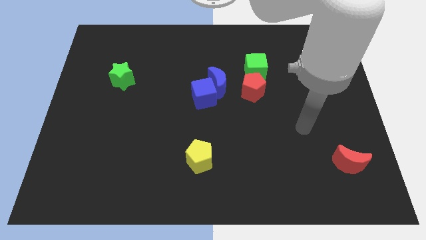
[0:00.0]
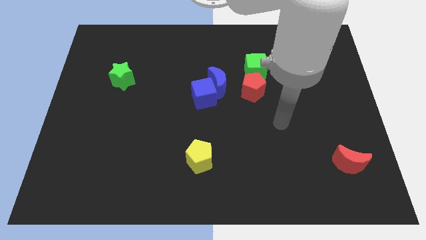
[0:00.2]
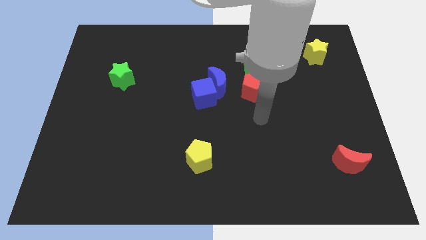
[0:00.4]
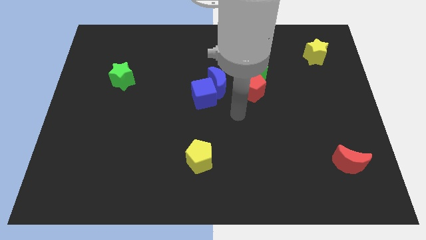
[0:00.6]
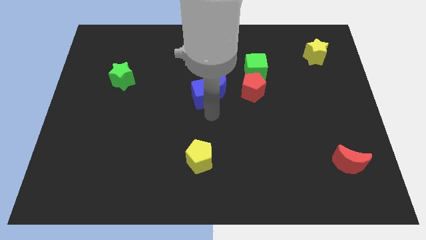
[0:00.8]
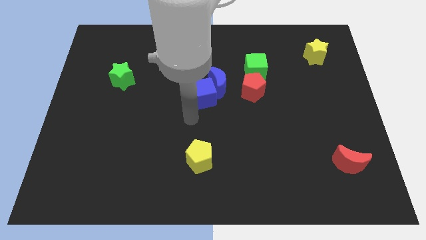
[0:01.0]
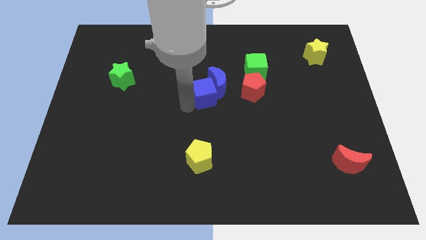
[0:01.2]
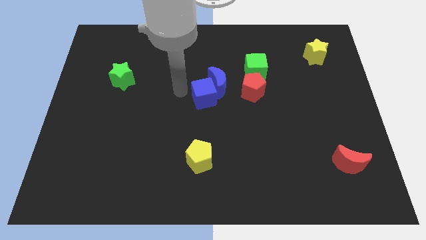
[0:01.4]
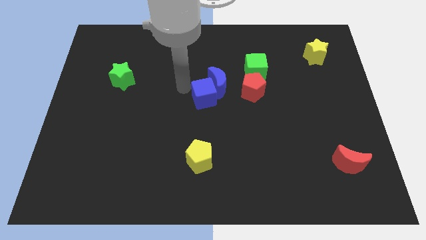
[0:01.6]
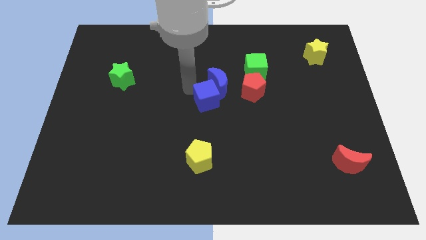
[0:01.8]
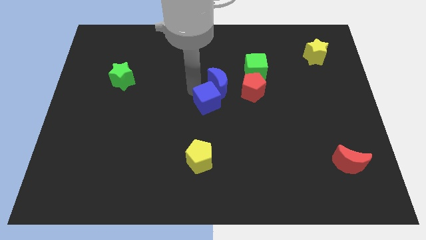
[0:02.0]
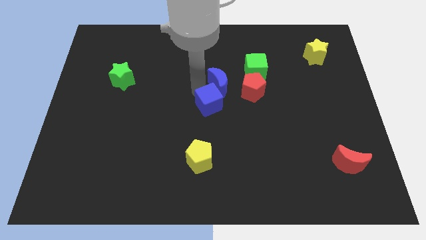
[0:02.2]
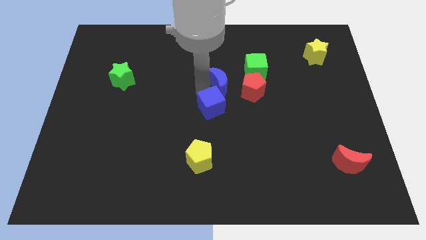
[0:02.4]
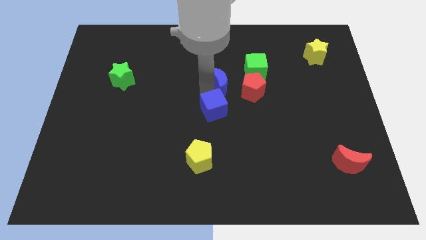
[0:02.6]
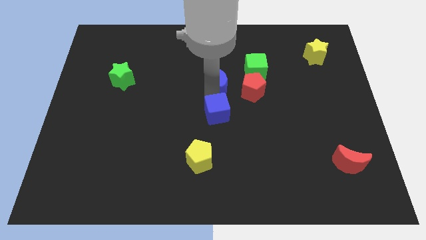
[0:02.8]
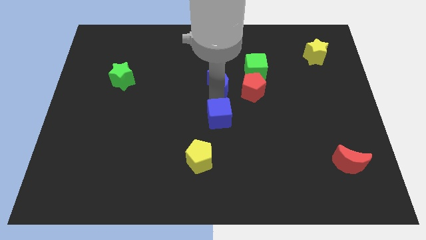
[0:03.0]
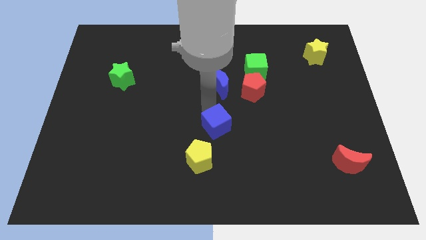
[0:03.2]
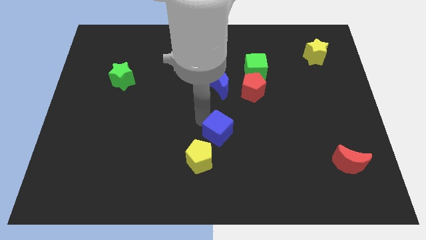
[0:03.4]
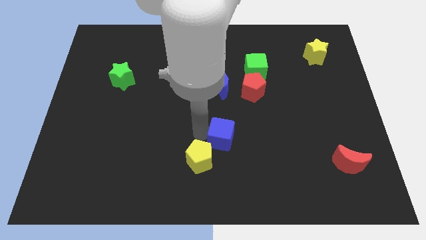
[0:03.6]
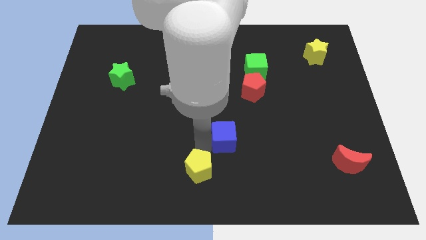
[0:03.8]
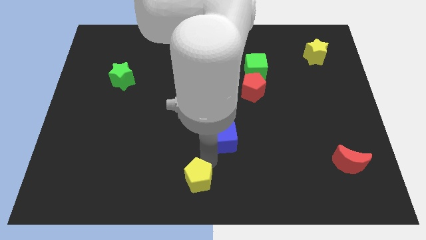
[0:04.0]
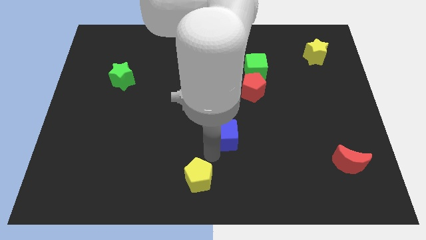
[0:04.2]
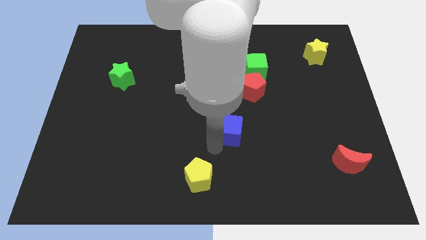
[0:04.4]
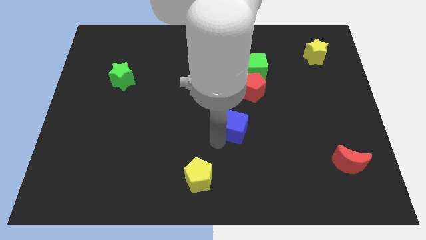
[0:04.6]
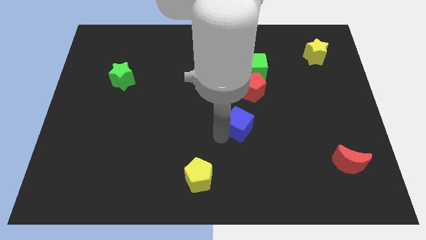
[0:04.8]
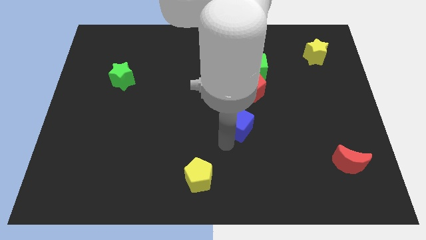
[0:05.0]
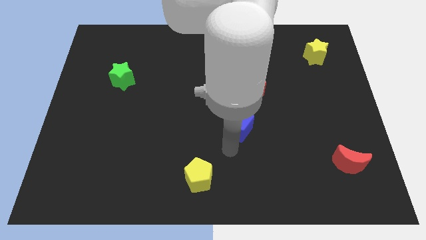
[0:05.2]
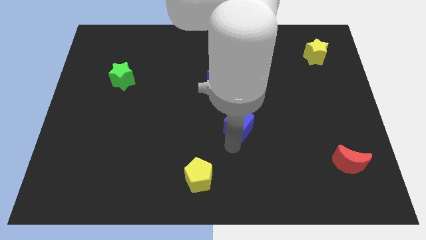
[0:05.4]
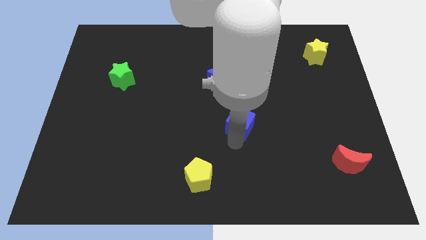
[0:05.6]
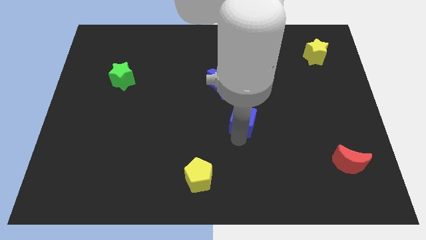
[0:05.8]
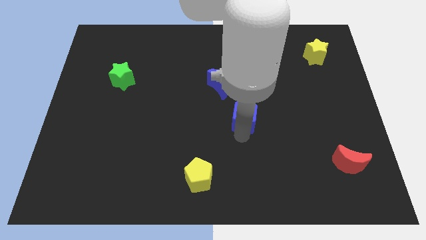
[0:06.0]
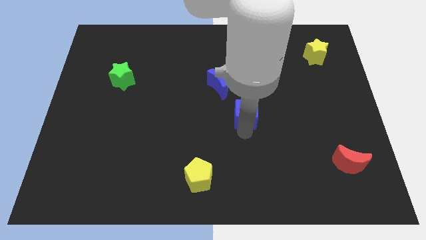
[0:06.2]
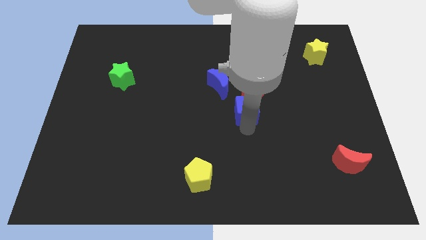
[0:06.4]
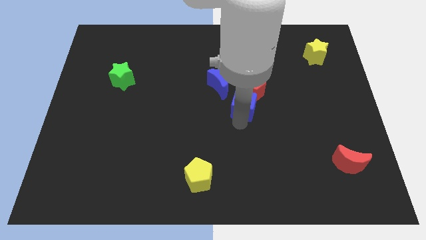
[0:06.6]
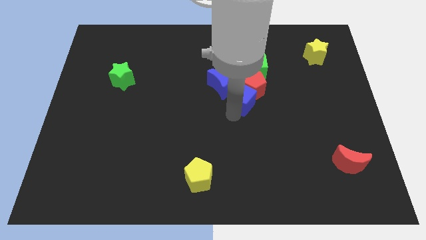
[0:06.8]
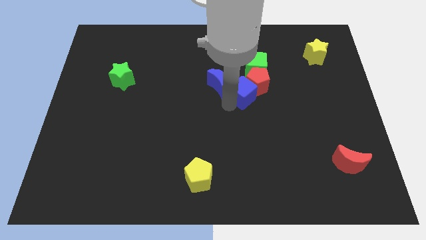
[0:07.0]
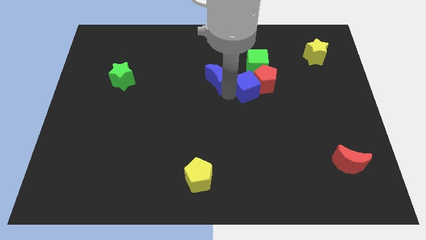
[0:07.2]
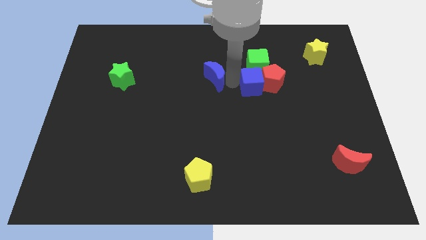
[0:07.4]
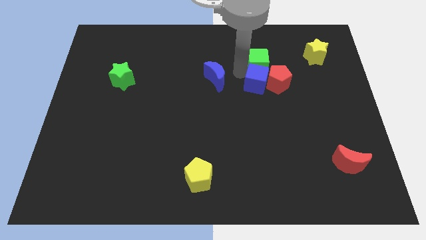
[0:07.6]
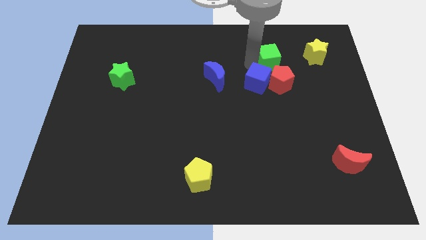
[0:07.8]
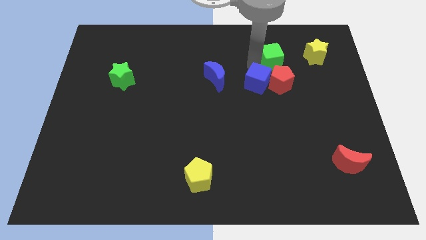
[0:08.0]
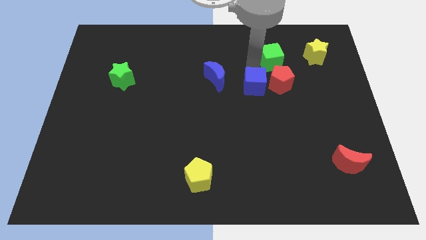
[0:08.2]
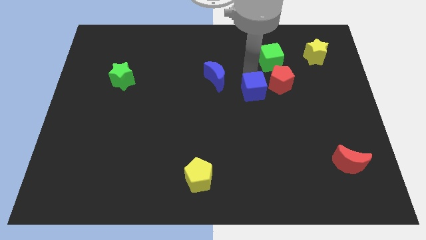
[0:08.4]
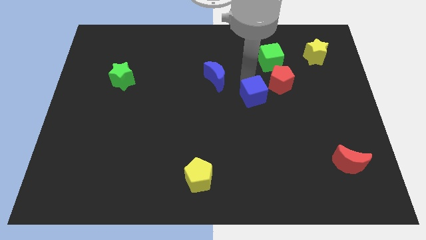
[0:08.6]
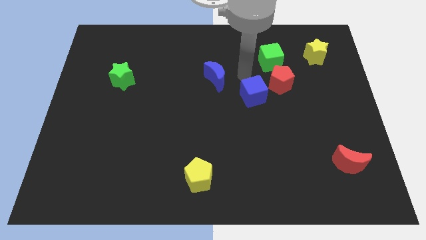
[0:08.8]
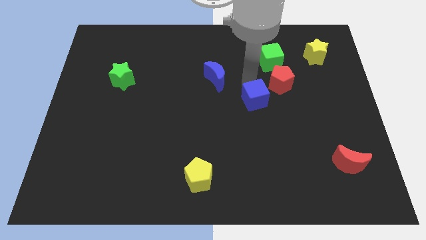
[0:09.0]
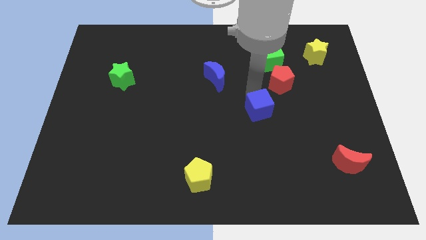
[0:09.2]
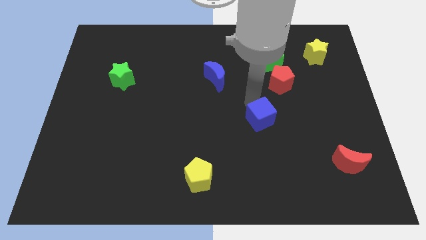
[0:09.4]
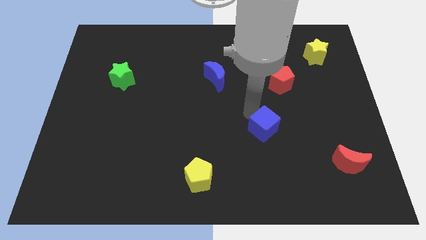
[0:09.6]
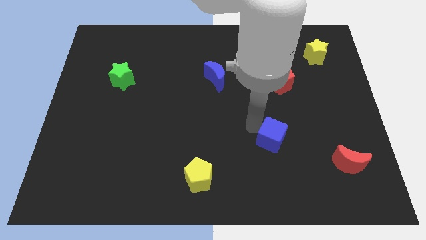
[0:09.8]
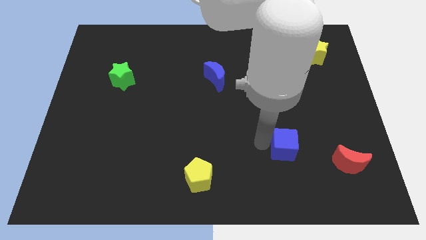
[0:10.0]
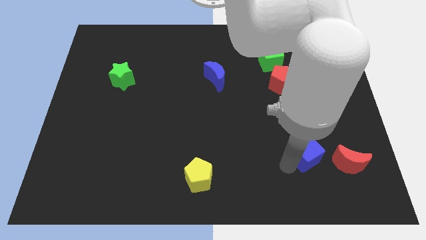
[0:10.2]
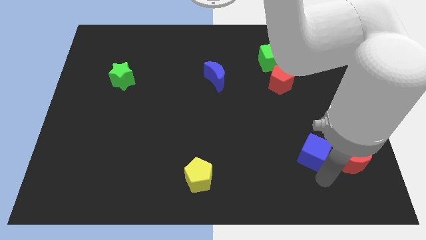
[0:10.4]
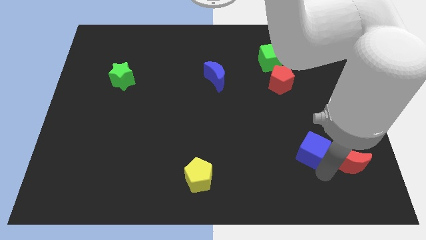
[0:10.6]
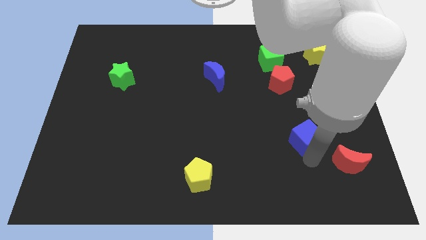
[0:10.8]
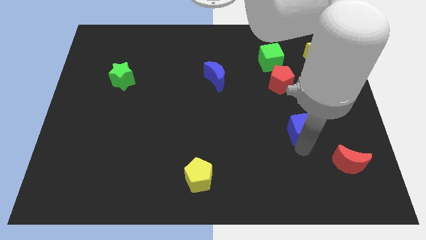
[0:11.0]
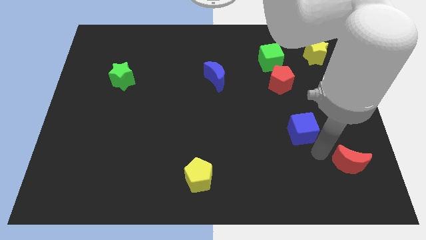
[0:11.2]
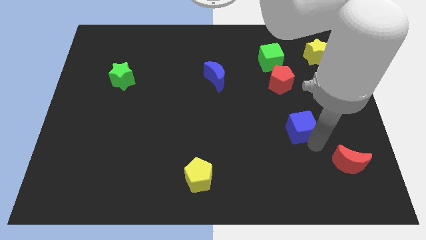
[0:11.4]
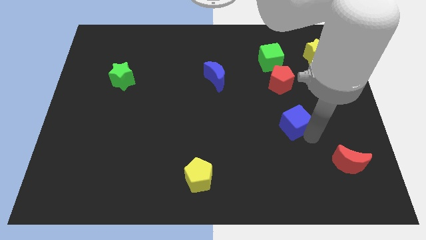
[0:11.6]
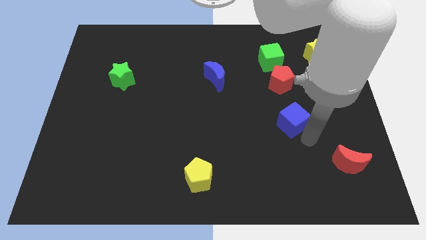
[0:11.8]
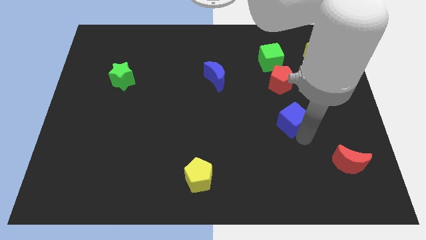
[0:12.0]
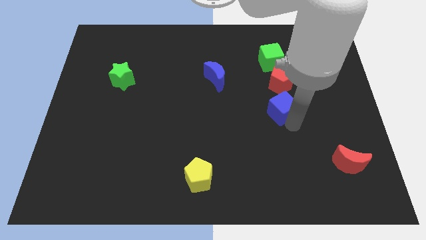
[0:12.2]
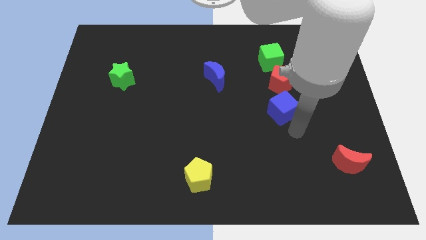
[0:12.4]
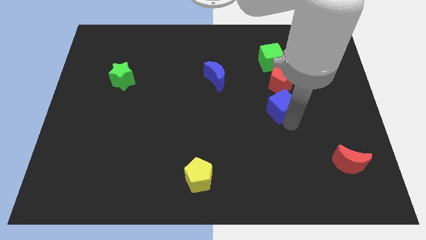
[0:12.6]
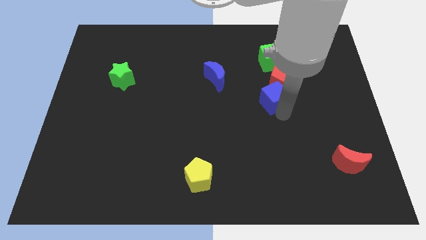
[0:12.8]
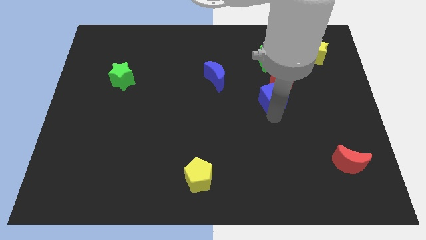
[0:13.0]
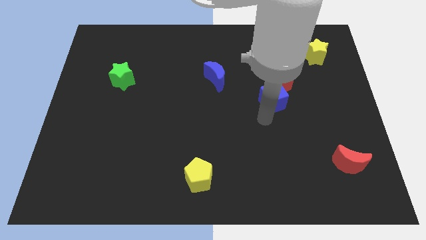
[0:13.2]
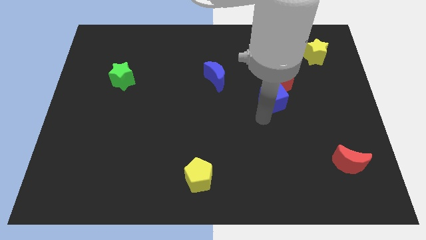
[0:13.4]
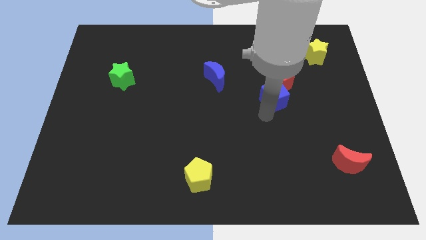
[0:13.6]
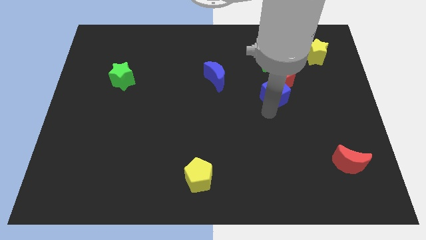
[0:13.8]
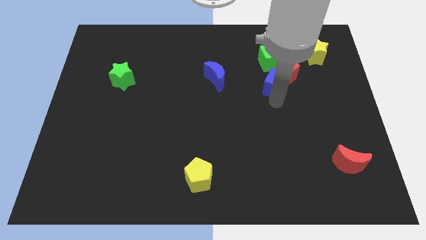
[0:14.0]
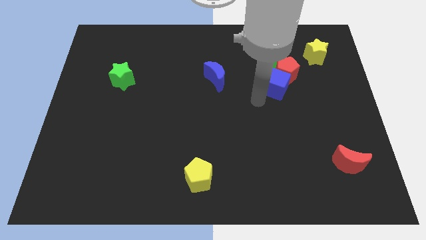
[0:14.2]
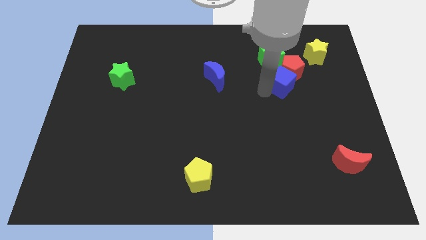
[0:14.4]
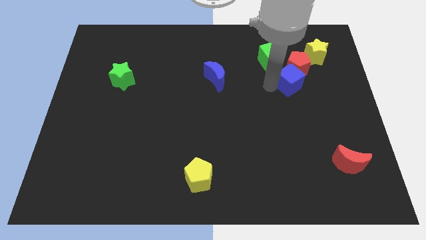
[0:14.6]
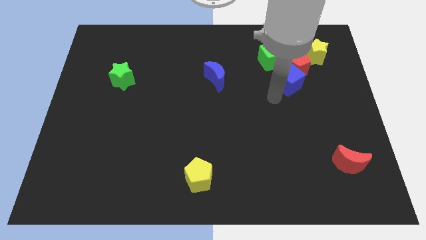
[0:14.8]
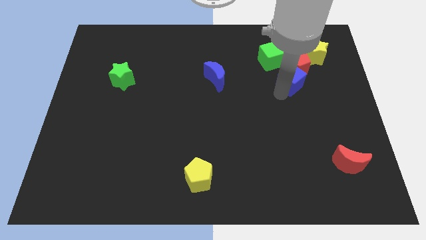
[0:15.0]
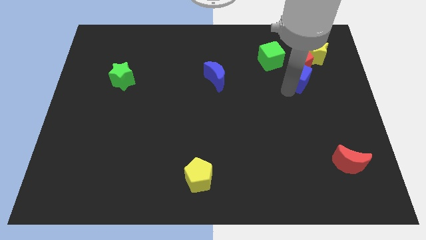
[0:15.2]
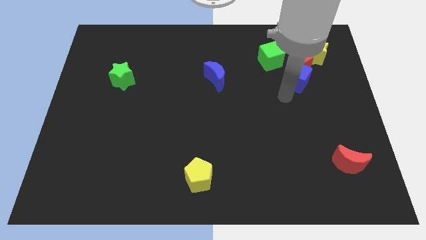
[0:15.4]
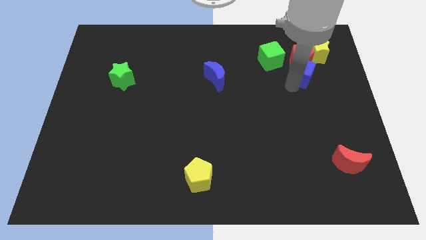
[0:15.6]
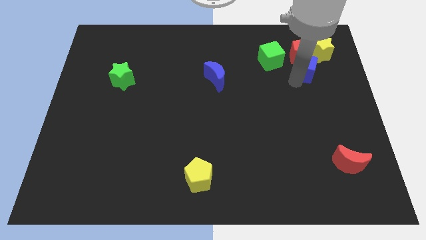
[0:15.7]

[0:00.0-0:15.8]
push the blue cube to the right of the green cube
